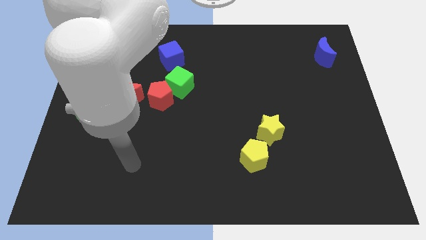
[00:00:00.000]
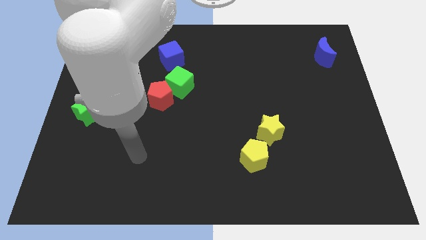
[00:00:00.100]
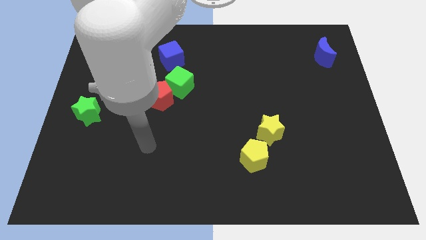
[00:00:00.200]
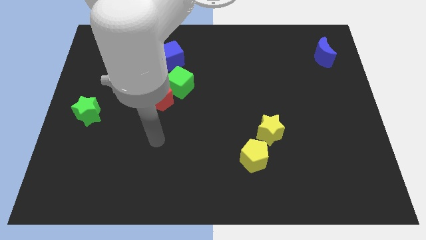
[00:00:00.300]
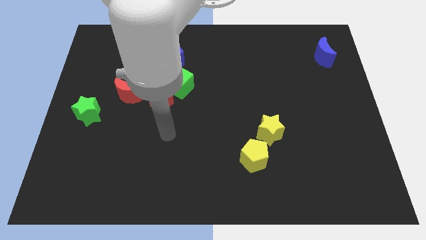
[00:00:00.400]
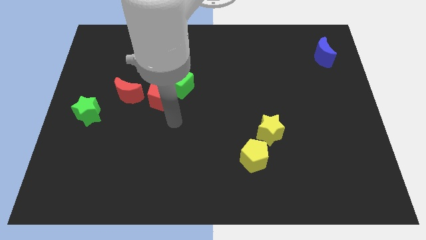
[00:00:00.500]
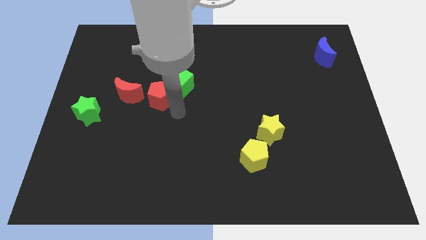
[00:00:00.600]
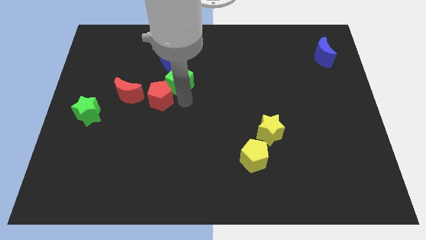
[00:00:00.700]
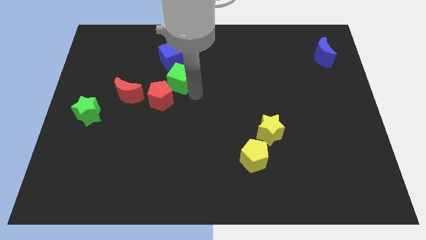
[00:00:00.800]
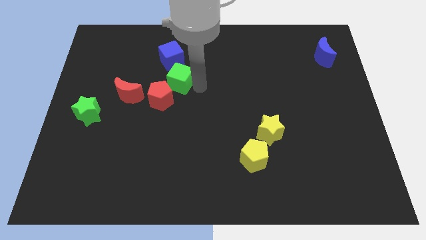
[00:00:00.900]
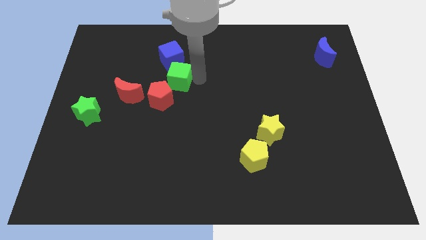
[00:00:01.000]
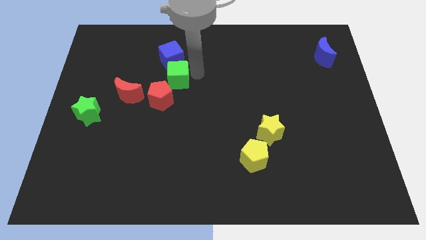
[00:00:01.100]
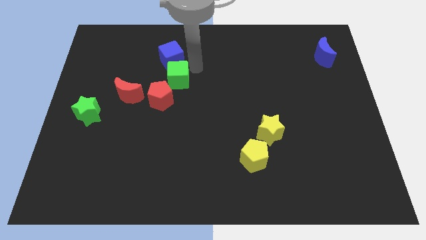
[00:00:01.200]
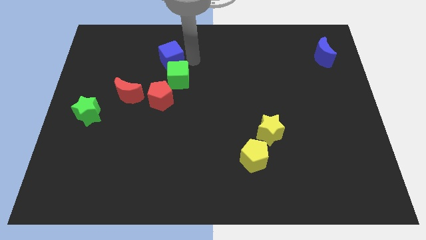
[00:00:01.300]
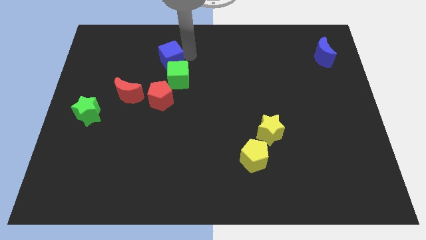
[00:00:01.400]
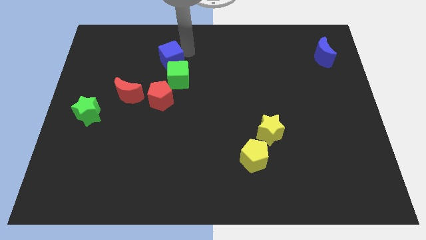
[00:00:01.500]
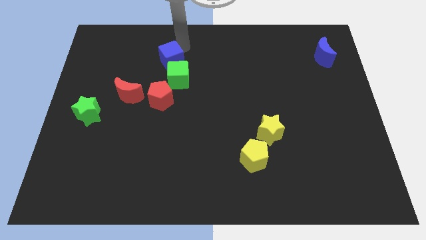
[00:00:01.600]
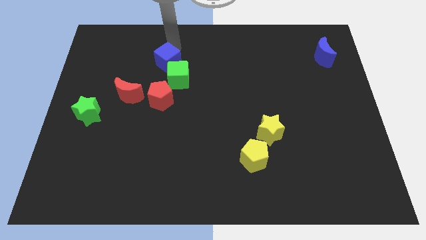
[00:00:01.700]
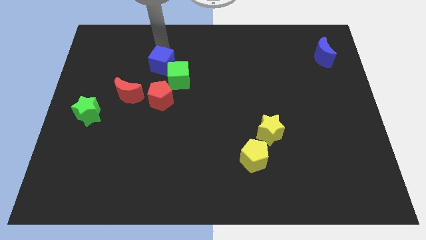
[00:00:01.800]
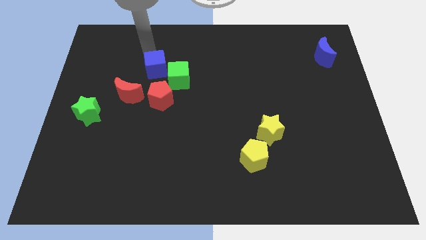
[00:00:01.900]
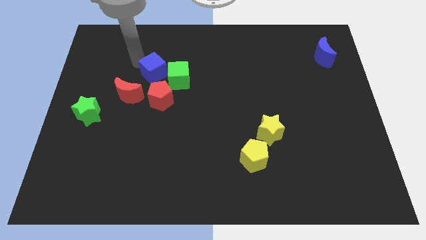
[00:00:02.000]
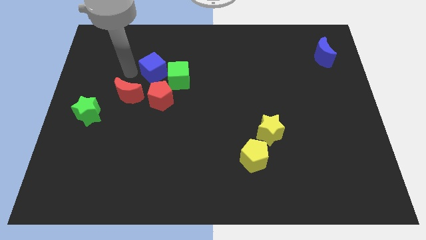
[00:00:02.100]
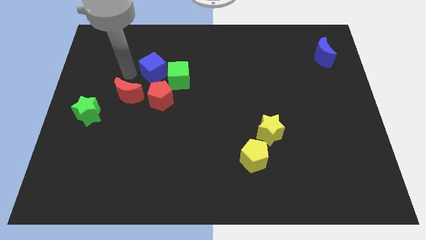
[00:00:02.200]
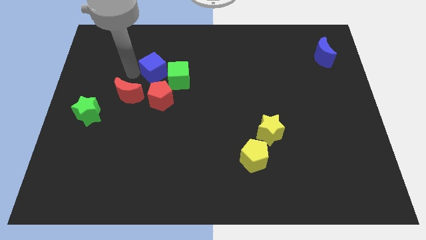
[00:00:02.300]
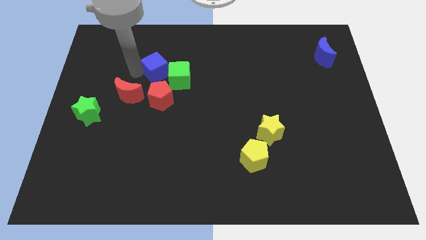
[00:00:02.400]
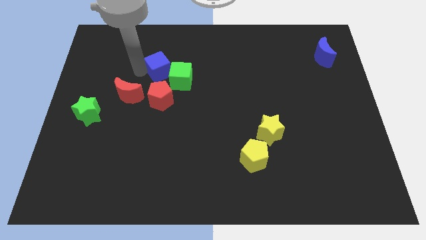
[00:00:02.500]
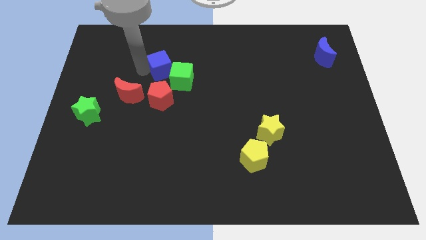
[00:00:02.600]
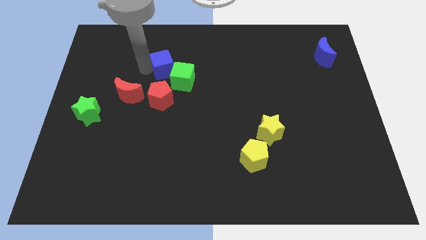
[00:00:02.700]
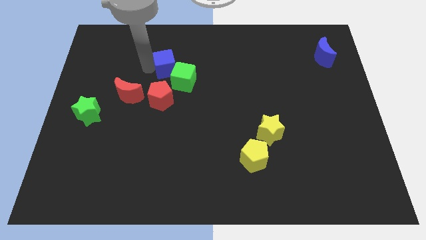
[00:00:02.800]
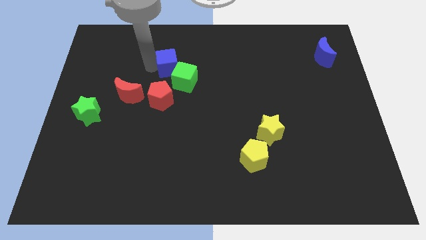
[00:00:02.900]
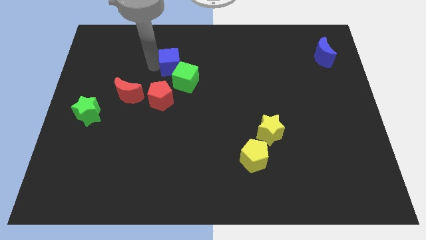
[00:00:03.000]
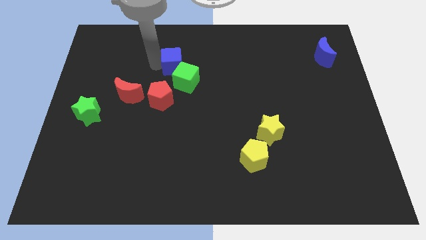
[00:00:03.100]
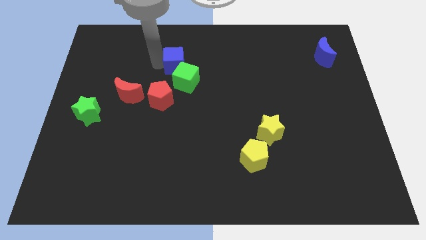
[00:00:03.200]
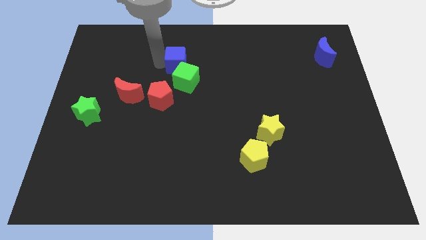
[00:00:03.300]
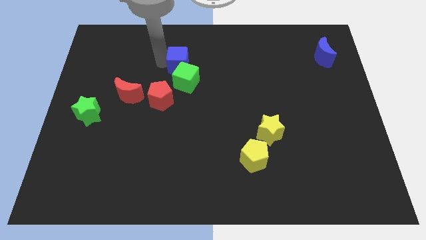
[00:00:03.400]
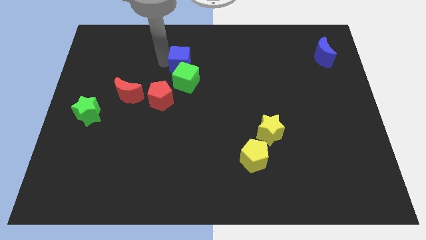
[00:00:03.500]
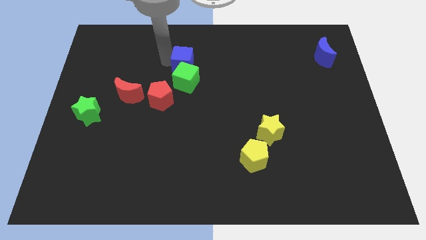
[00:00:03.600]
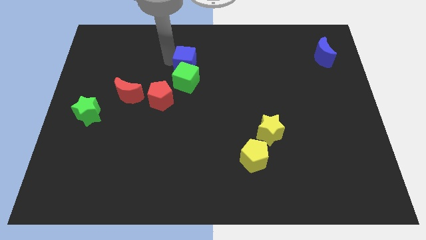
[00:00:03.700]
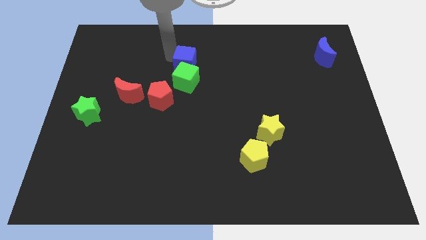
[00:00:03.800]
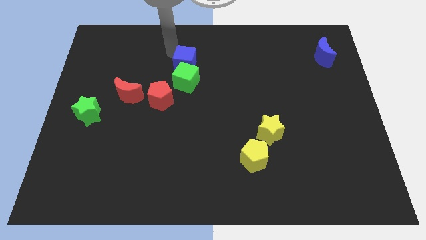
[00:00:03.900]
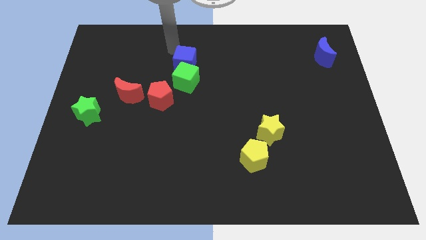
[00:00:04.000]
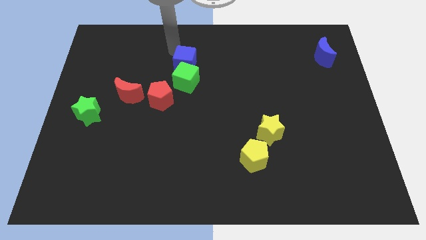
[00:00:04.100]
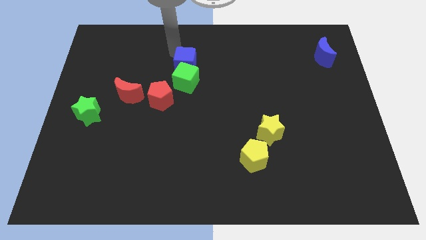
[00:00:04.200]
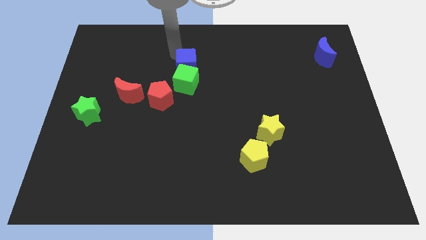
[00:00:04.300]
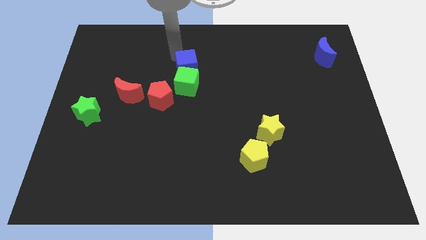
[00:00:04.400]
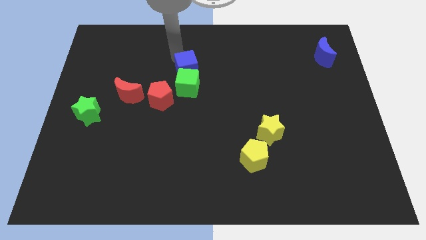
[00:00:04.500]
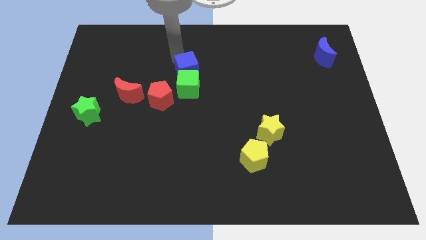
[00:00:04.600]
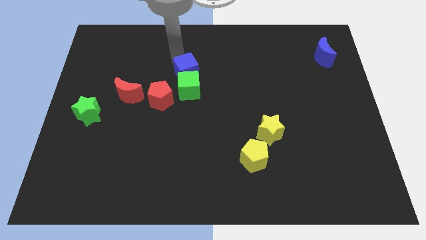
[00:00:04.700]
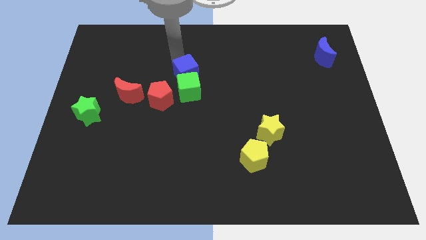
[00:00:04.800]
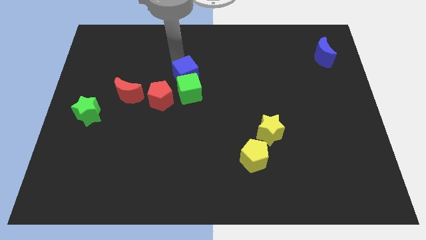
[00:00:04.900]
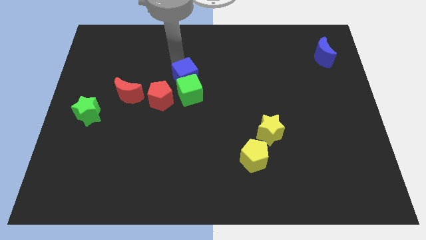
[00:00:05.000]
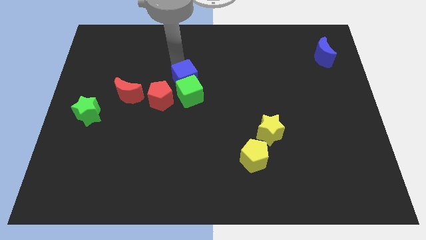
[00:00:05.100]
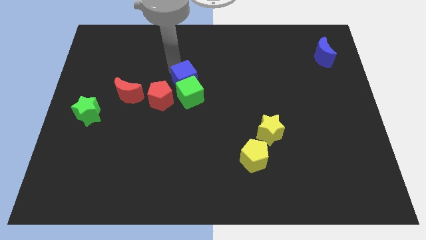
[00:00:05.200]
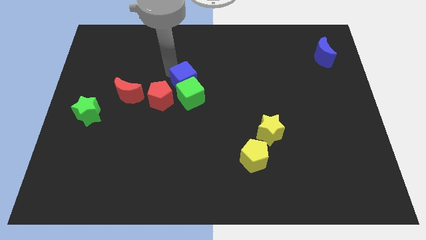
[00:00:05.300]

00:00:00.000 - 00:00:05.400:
slide the blue cube just right of the red moon

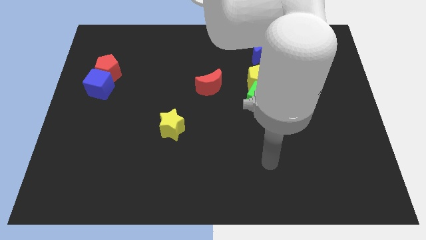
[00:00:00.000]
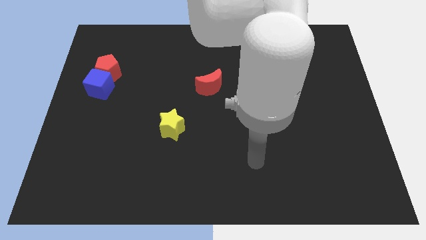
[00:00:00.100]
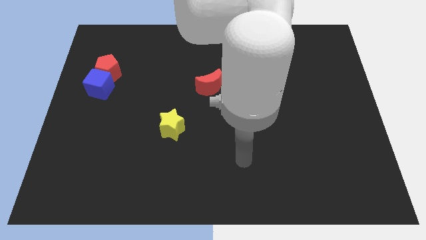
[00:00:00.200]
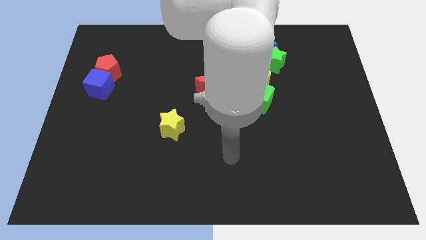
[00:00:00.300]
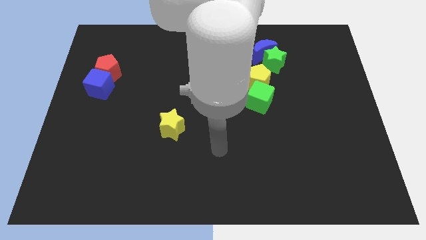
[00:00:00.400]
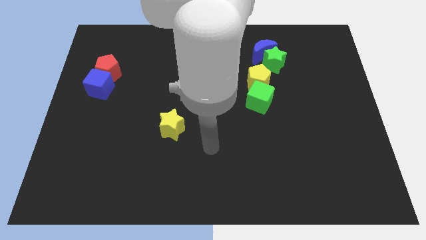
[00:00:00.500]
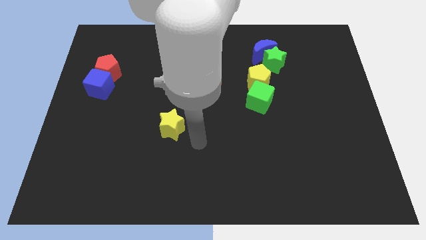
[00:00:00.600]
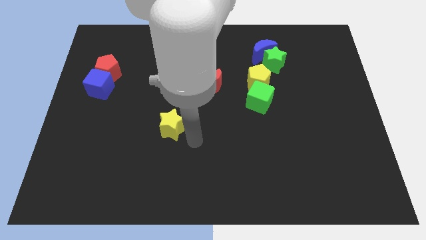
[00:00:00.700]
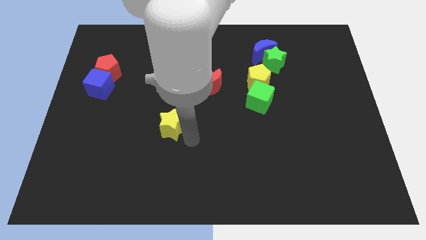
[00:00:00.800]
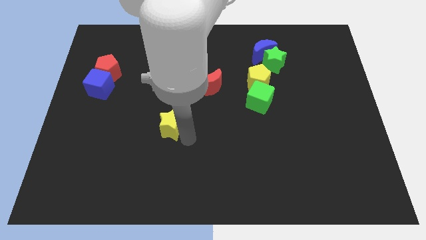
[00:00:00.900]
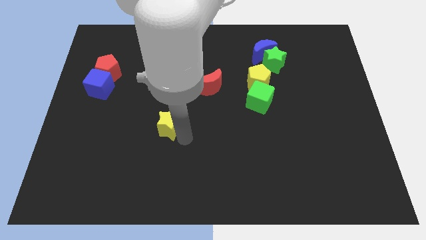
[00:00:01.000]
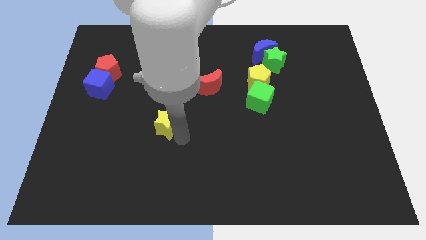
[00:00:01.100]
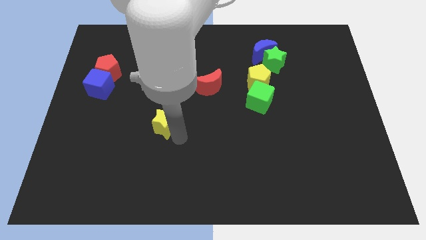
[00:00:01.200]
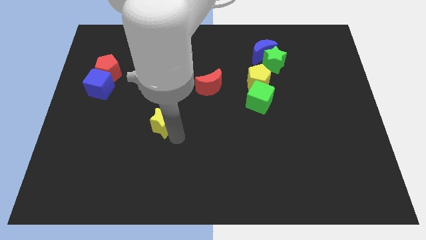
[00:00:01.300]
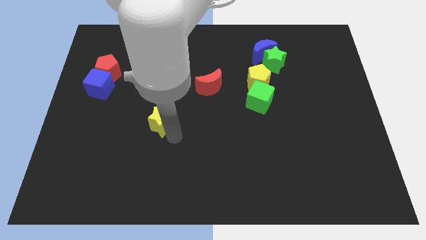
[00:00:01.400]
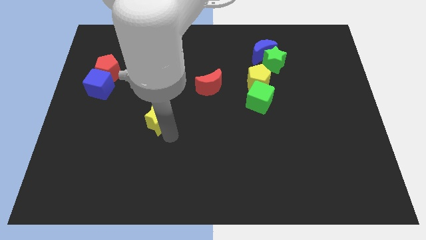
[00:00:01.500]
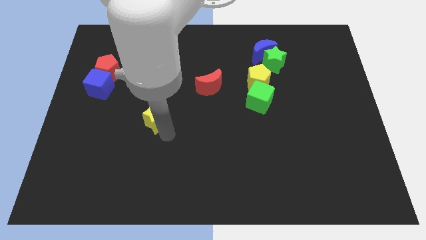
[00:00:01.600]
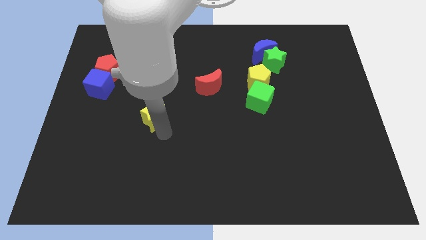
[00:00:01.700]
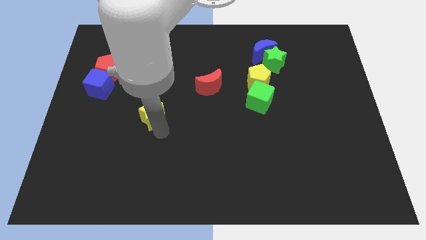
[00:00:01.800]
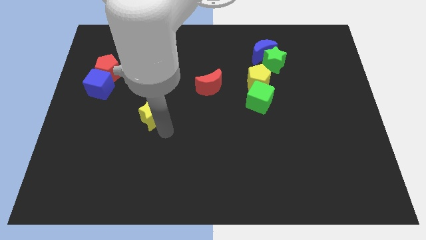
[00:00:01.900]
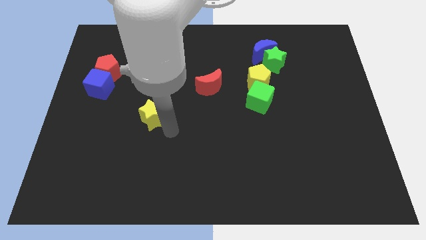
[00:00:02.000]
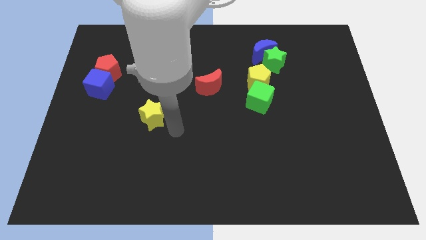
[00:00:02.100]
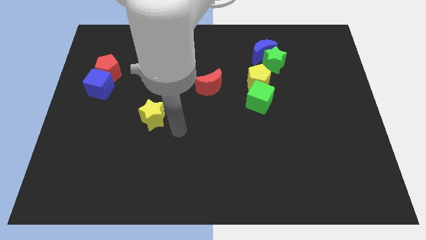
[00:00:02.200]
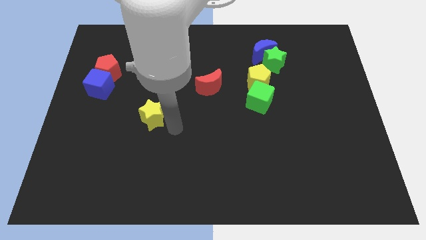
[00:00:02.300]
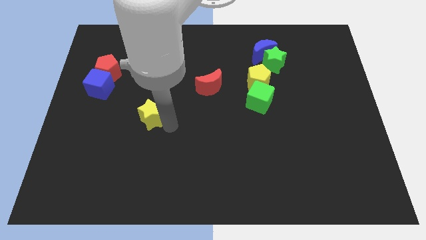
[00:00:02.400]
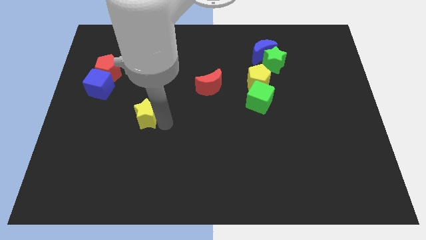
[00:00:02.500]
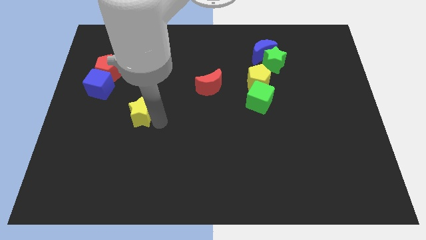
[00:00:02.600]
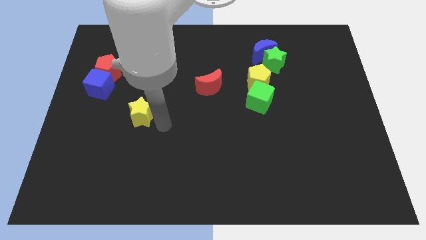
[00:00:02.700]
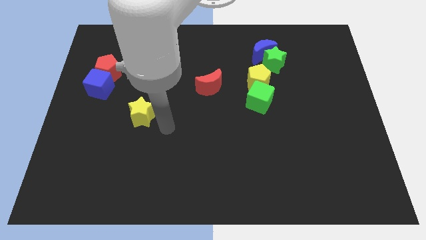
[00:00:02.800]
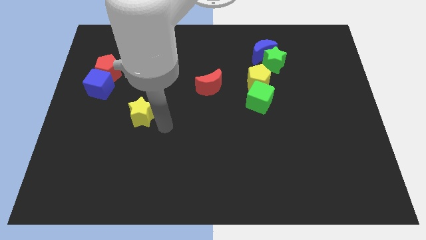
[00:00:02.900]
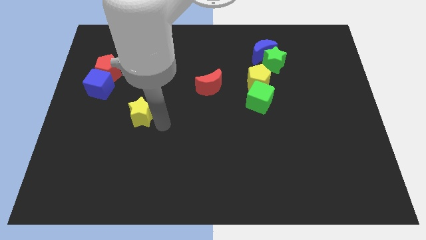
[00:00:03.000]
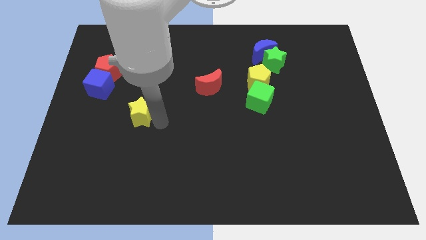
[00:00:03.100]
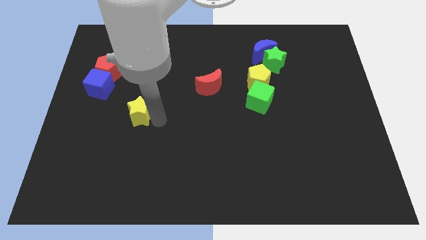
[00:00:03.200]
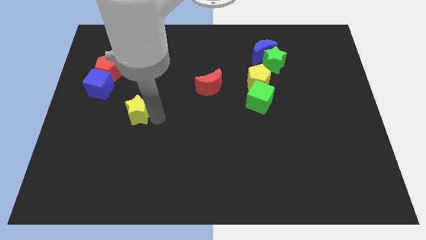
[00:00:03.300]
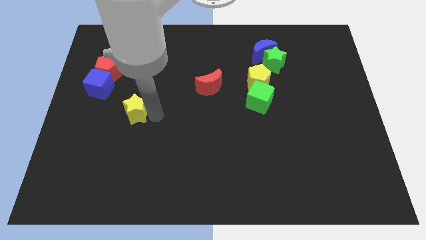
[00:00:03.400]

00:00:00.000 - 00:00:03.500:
move the yellow star diagonally down and to the right of the blue cube
